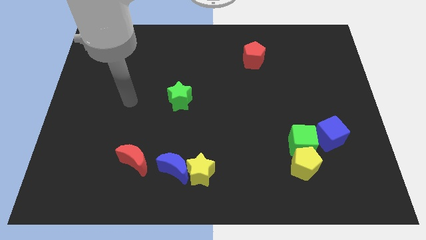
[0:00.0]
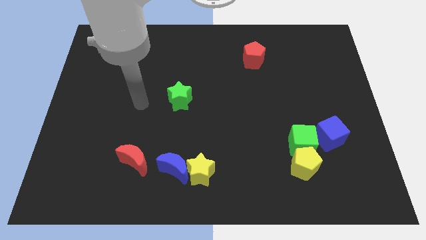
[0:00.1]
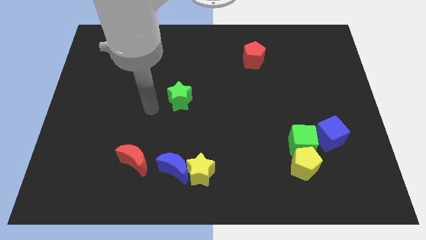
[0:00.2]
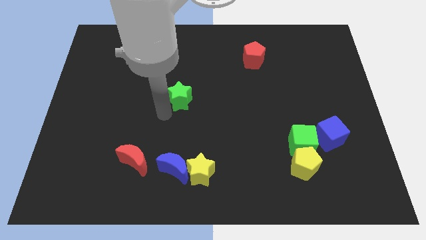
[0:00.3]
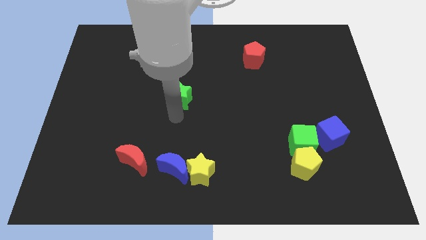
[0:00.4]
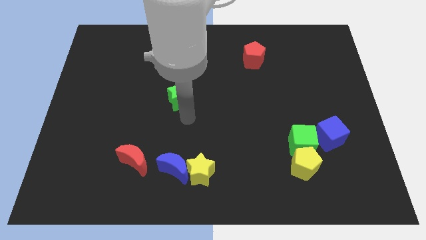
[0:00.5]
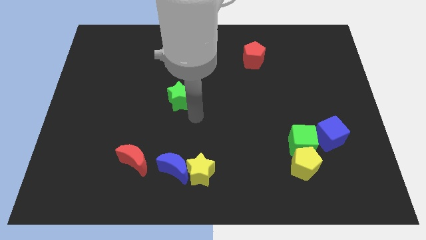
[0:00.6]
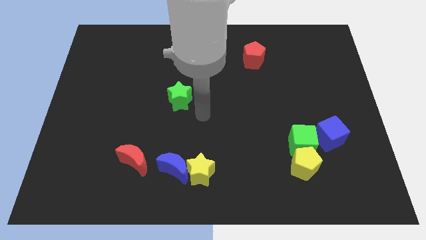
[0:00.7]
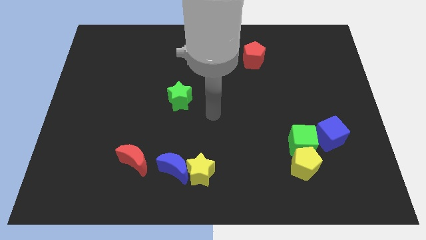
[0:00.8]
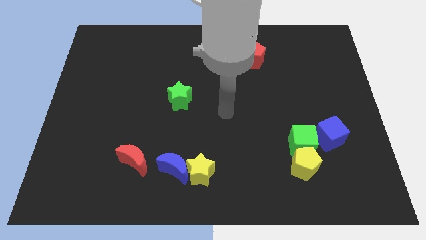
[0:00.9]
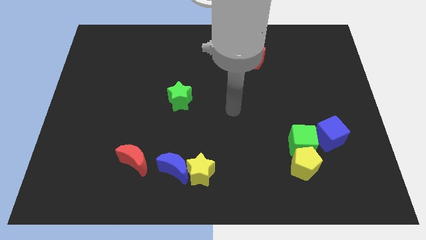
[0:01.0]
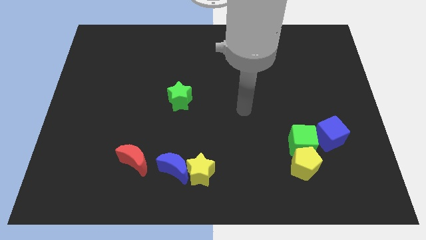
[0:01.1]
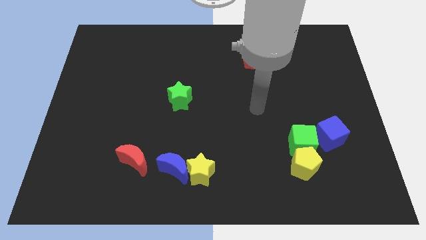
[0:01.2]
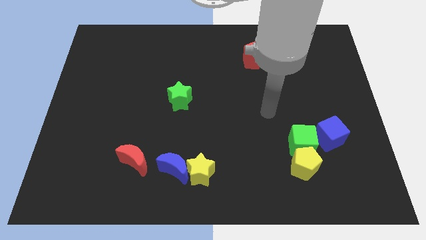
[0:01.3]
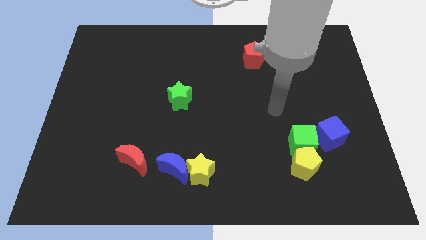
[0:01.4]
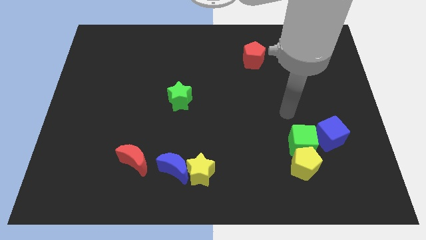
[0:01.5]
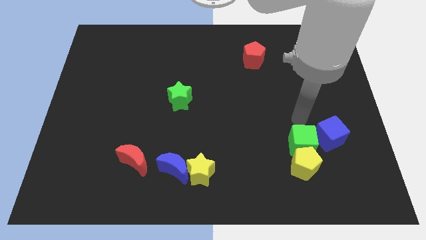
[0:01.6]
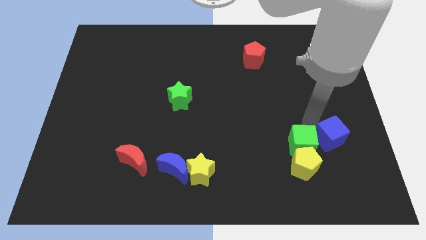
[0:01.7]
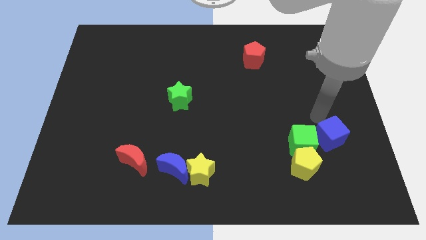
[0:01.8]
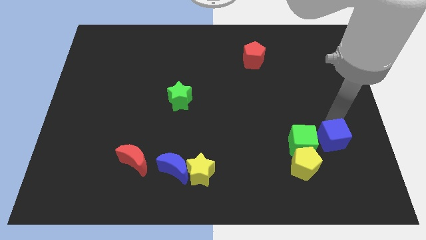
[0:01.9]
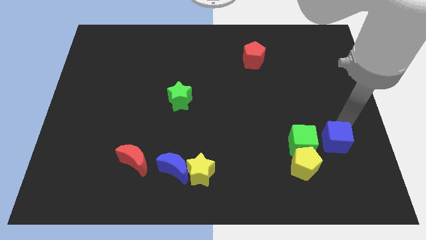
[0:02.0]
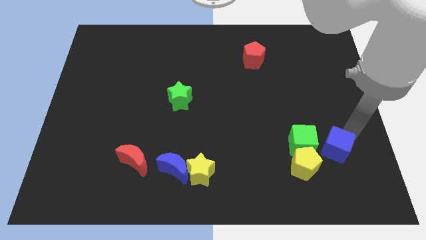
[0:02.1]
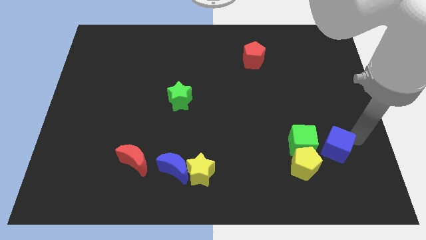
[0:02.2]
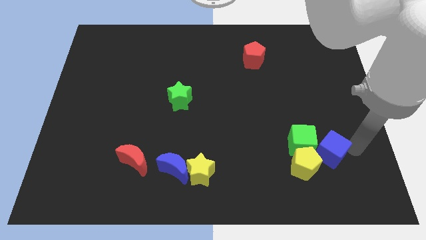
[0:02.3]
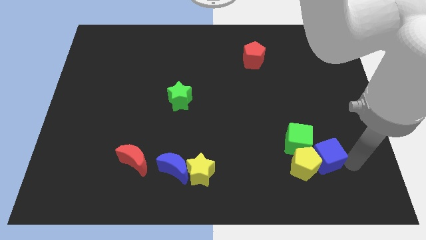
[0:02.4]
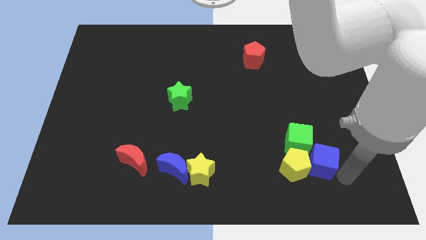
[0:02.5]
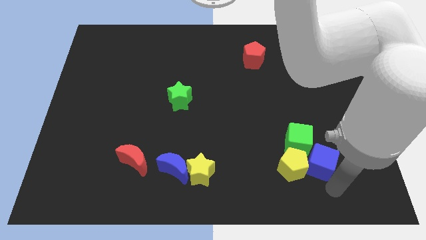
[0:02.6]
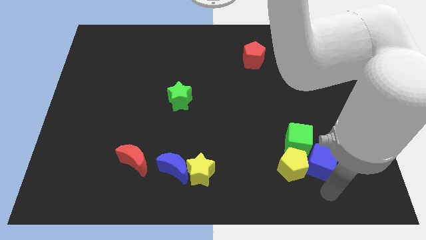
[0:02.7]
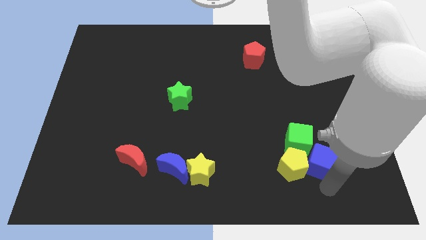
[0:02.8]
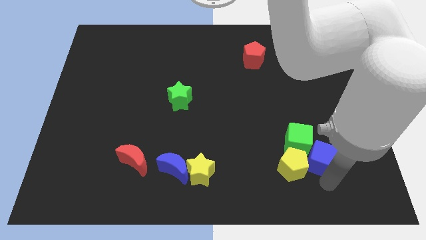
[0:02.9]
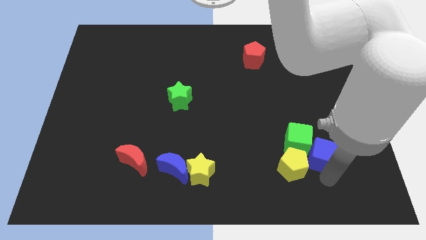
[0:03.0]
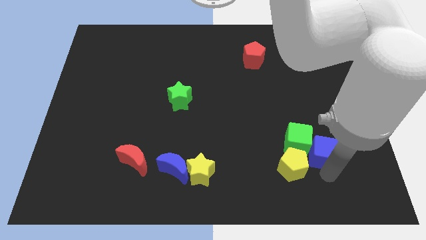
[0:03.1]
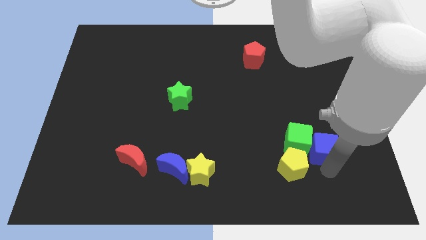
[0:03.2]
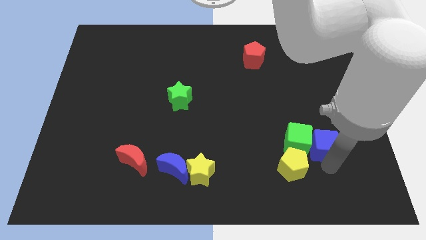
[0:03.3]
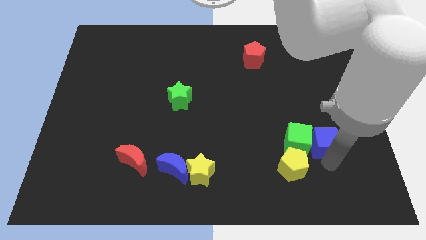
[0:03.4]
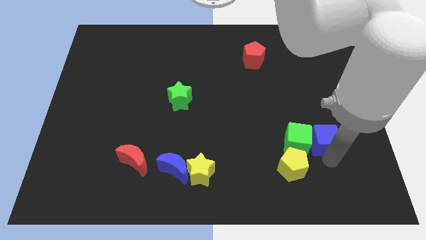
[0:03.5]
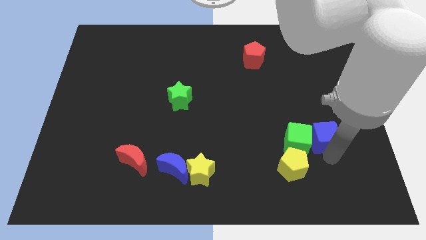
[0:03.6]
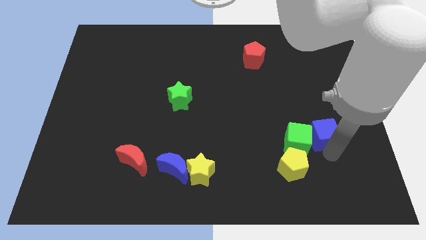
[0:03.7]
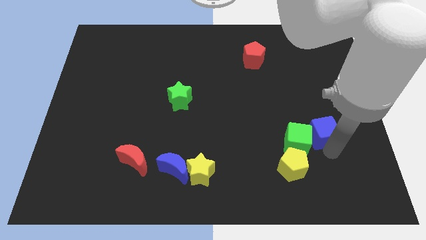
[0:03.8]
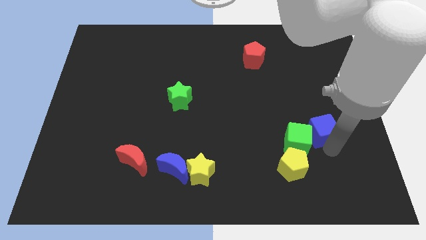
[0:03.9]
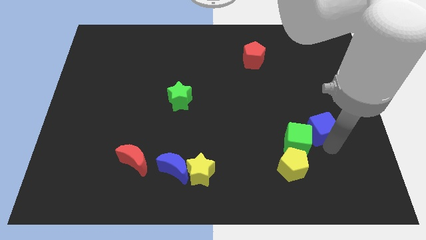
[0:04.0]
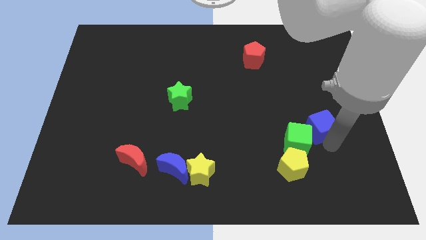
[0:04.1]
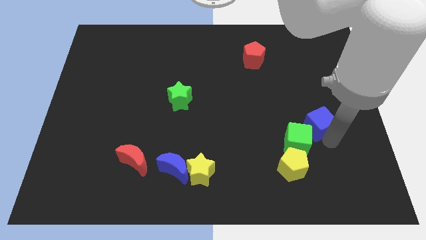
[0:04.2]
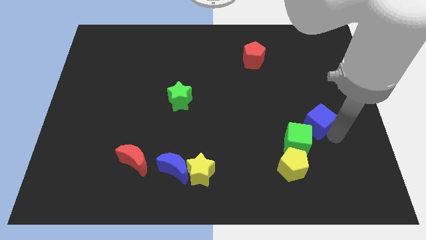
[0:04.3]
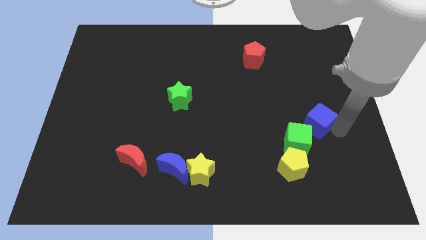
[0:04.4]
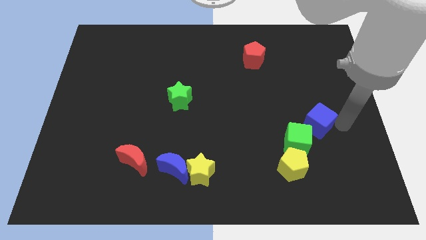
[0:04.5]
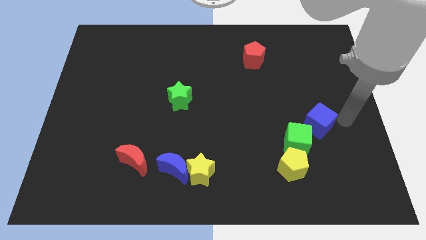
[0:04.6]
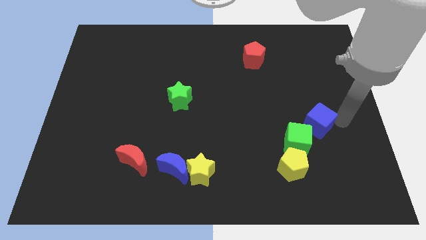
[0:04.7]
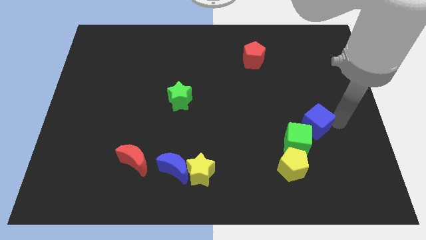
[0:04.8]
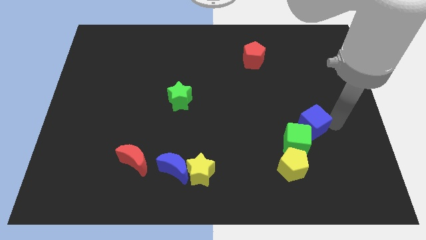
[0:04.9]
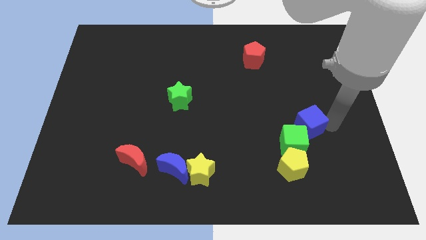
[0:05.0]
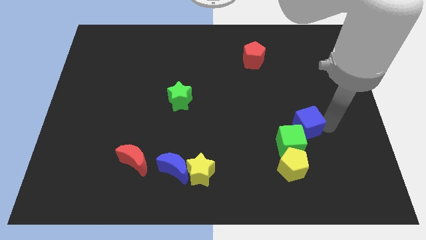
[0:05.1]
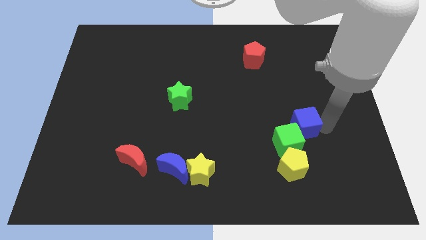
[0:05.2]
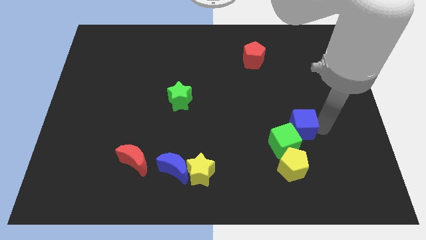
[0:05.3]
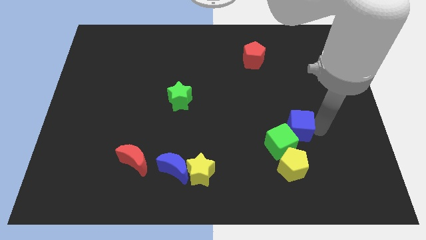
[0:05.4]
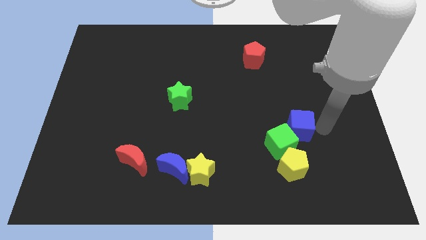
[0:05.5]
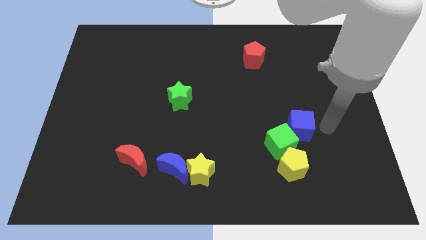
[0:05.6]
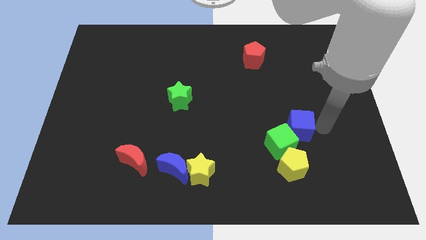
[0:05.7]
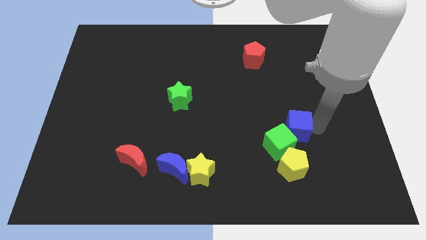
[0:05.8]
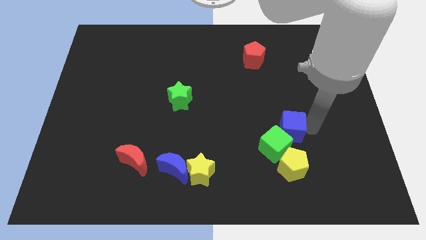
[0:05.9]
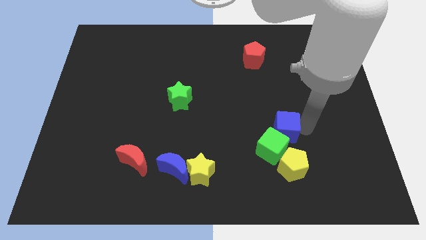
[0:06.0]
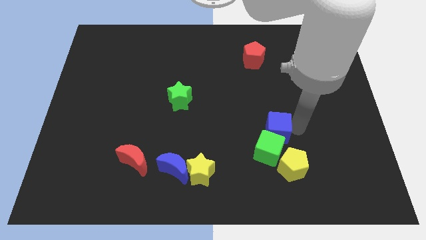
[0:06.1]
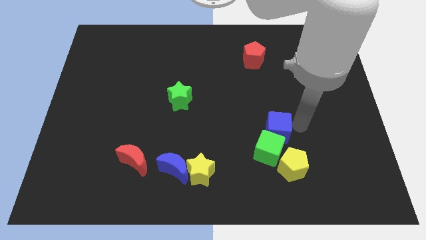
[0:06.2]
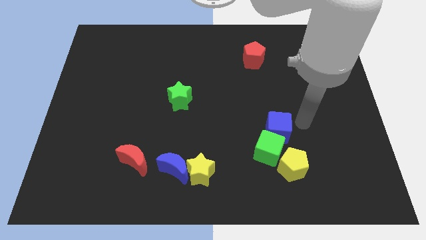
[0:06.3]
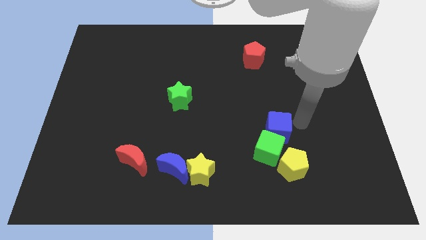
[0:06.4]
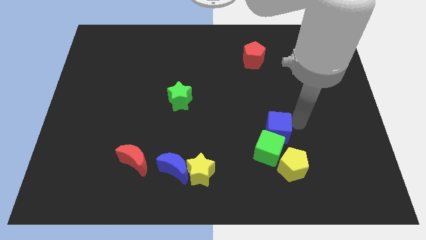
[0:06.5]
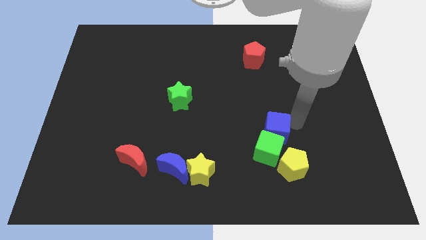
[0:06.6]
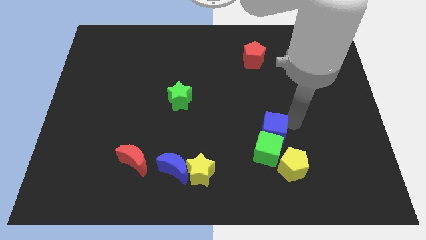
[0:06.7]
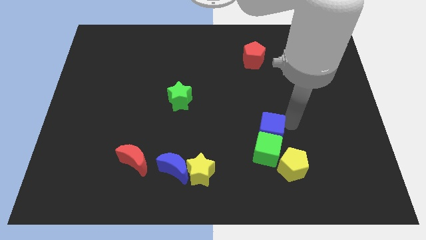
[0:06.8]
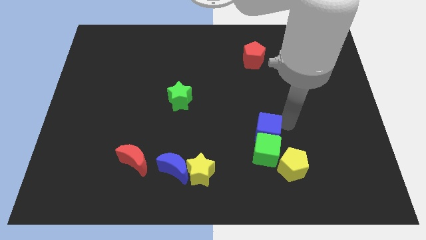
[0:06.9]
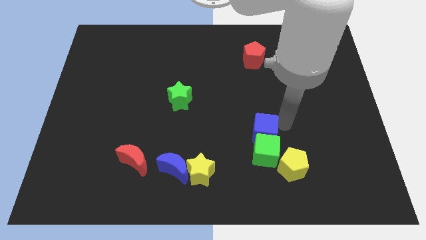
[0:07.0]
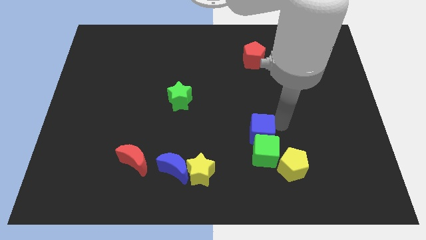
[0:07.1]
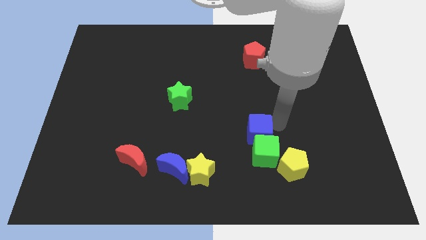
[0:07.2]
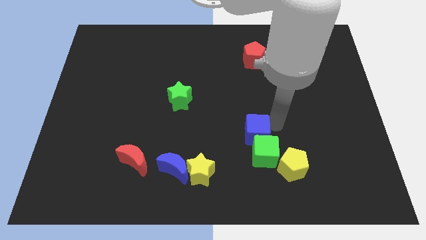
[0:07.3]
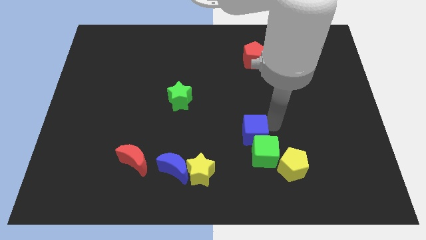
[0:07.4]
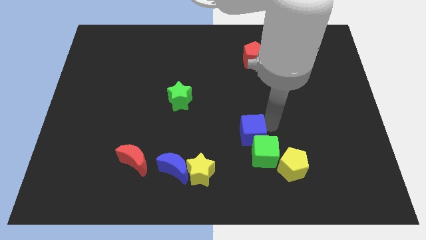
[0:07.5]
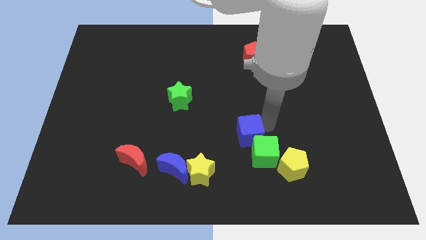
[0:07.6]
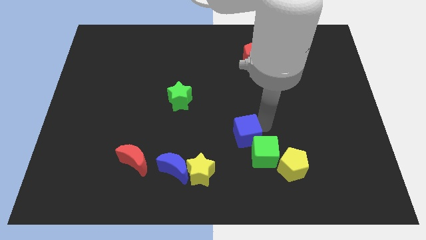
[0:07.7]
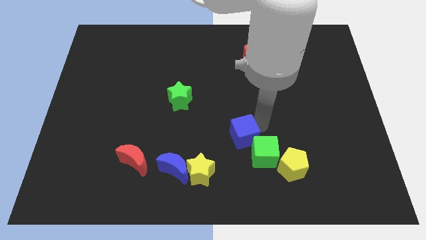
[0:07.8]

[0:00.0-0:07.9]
slide the blue cube diagonally up and to the right of the yellow star
